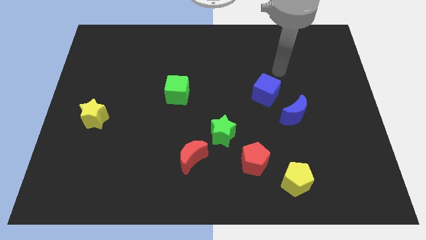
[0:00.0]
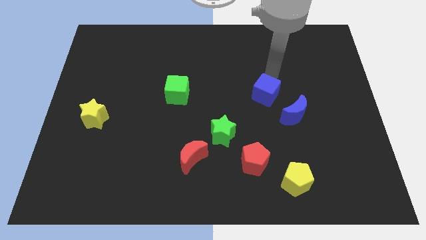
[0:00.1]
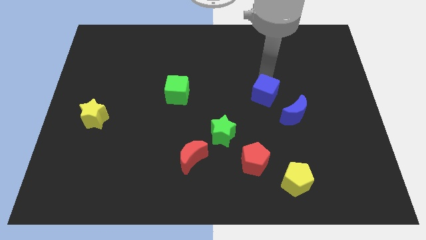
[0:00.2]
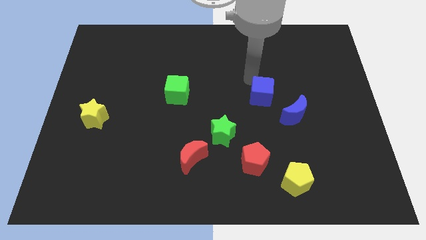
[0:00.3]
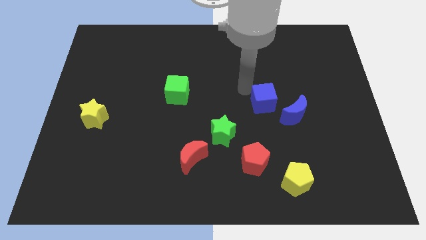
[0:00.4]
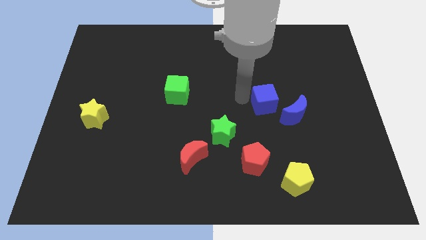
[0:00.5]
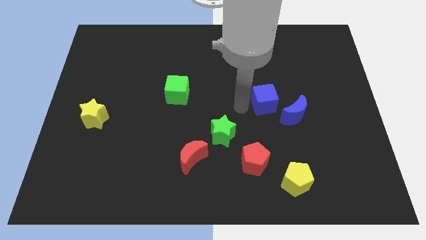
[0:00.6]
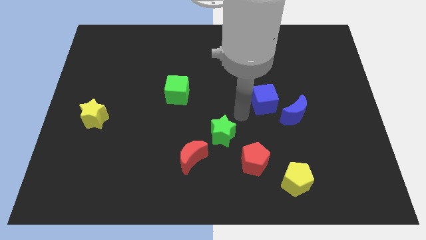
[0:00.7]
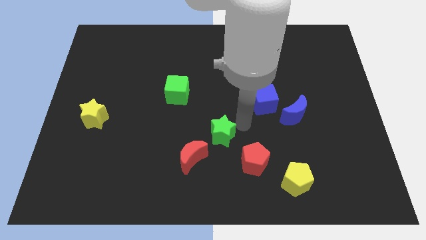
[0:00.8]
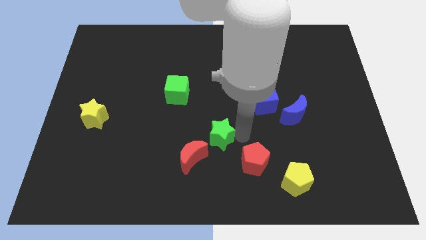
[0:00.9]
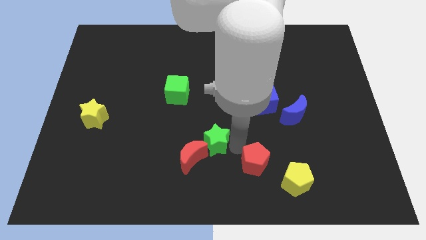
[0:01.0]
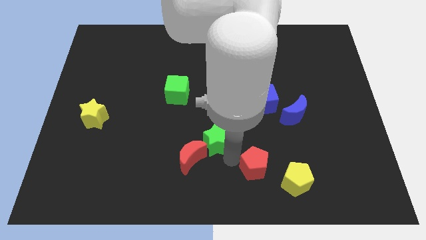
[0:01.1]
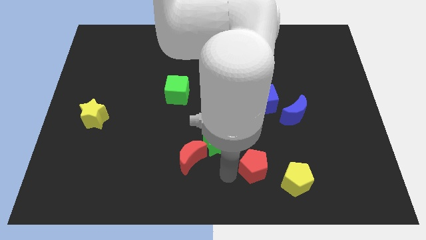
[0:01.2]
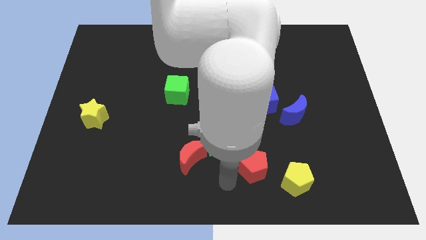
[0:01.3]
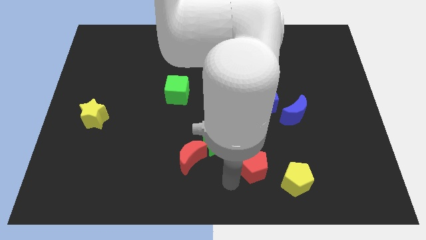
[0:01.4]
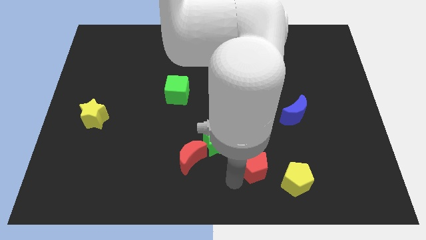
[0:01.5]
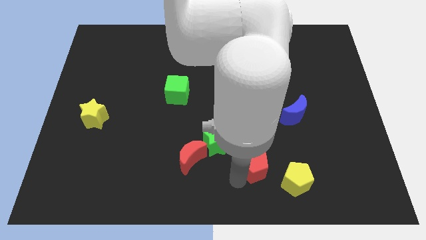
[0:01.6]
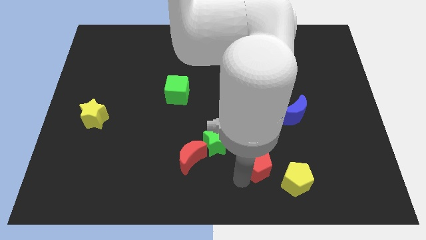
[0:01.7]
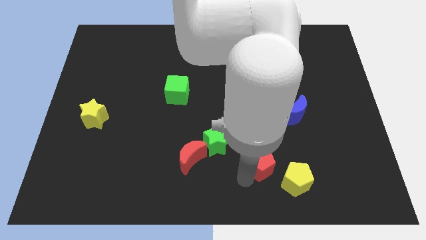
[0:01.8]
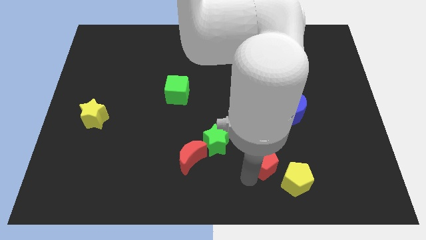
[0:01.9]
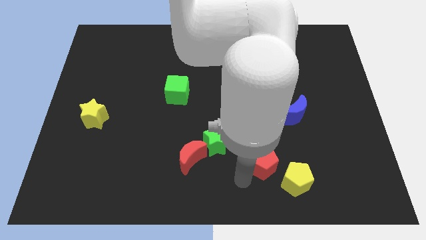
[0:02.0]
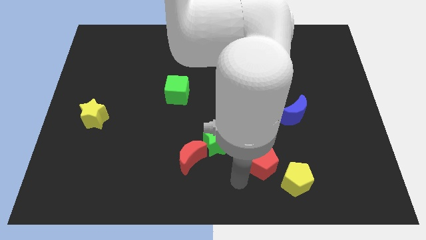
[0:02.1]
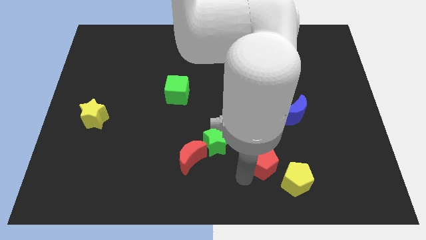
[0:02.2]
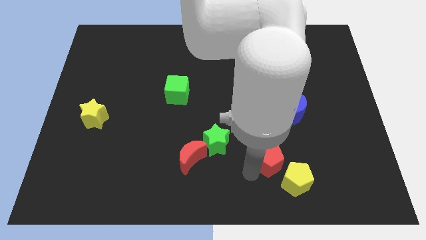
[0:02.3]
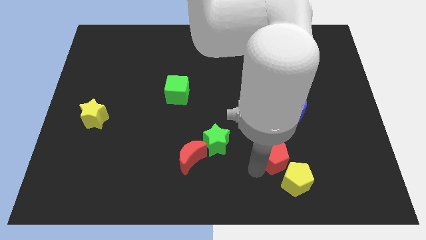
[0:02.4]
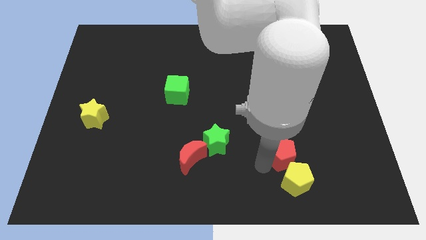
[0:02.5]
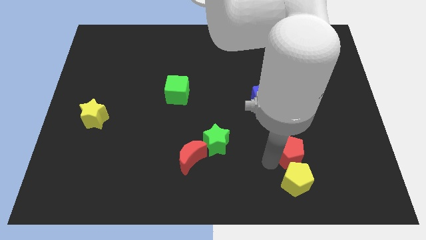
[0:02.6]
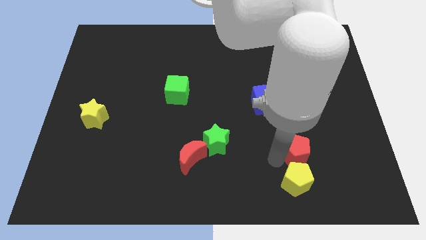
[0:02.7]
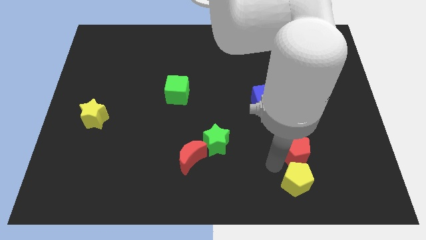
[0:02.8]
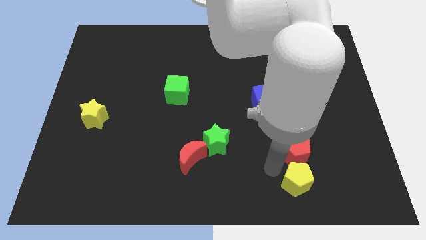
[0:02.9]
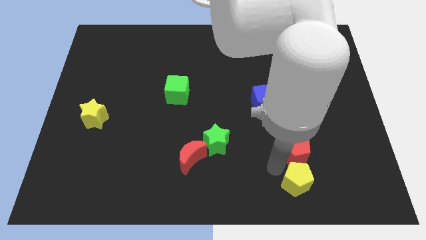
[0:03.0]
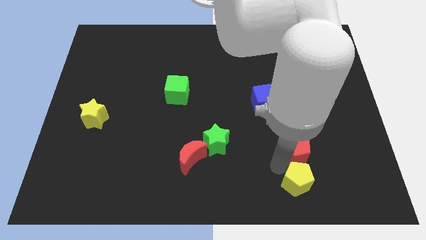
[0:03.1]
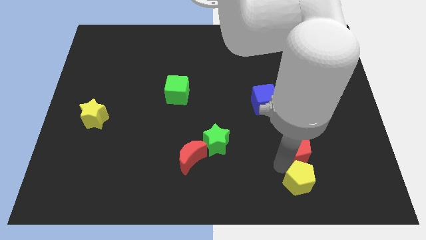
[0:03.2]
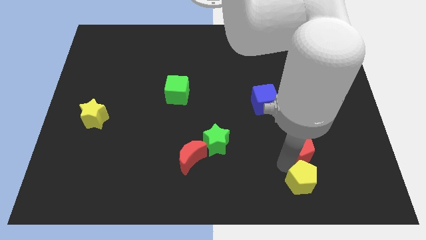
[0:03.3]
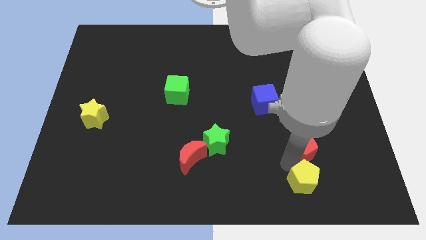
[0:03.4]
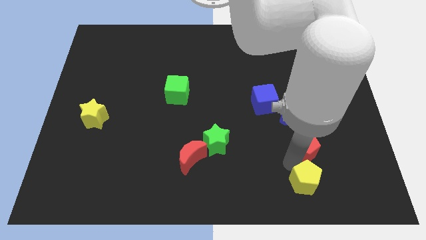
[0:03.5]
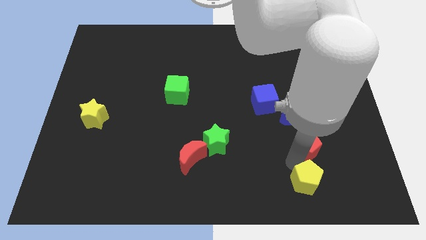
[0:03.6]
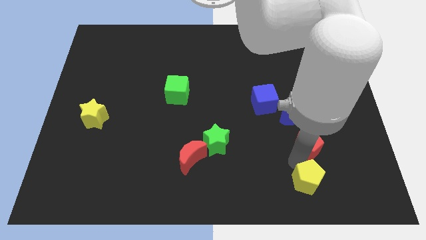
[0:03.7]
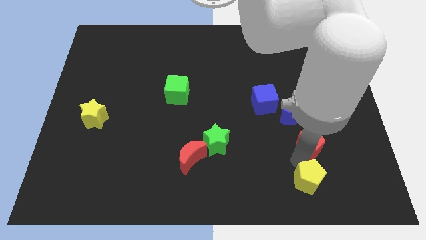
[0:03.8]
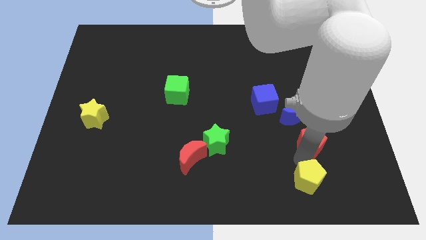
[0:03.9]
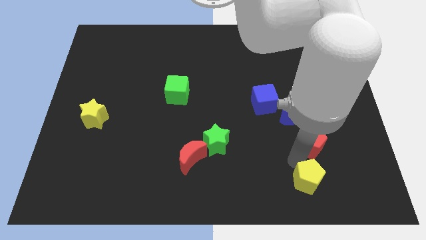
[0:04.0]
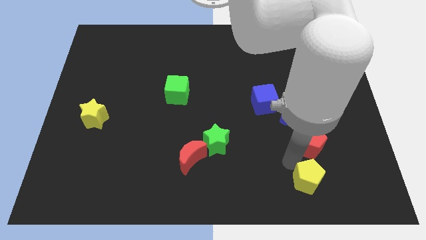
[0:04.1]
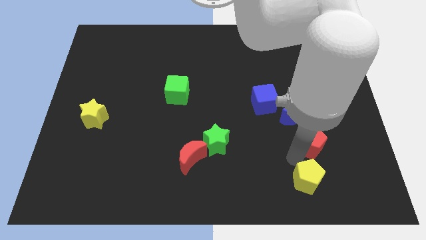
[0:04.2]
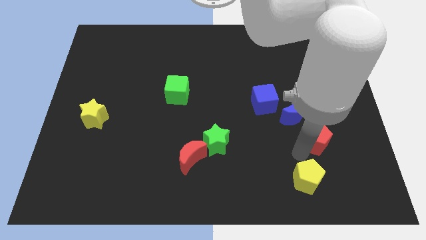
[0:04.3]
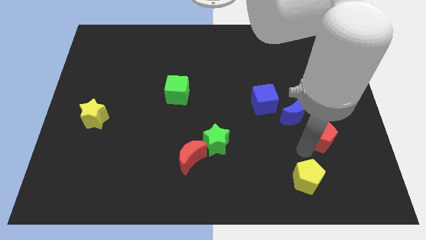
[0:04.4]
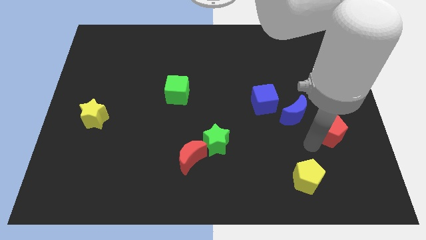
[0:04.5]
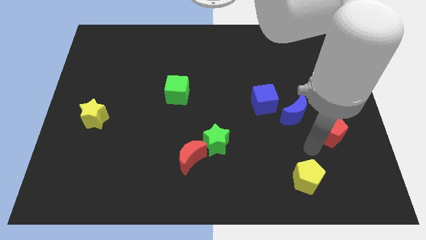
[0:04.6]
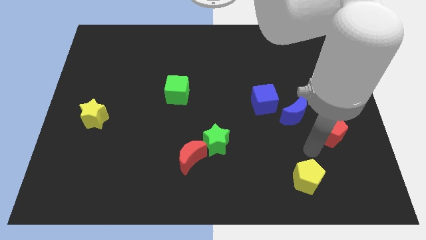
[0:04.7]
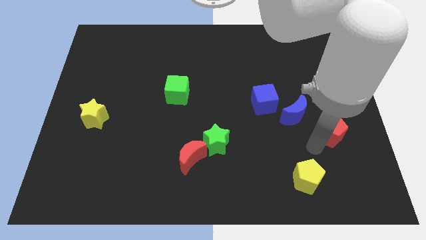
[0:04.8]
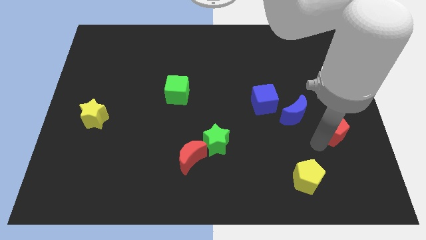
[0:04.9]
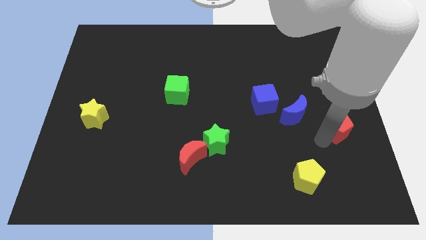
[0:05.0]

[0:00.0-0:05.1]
move the red pentagon to the right side

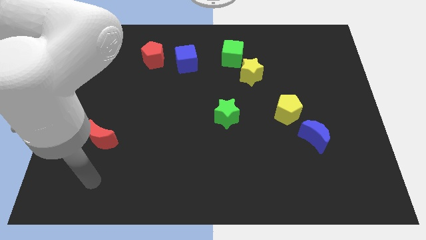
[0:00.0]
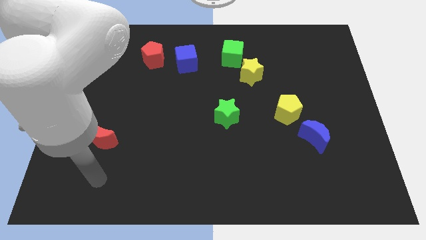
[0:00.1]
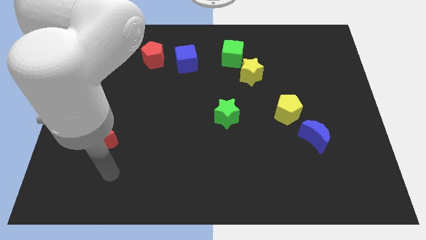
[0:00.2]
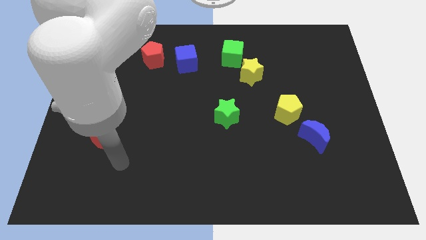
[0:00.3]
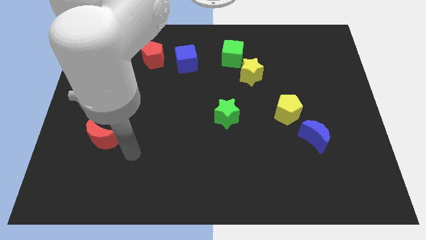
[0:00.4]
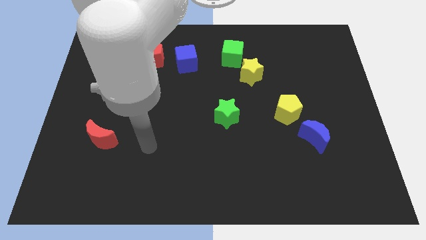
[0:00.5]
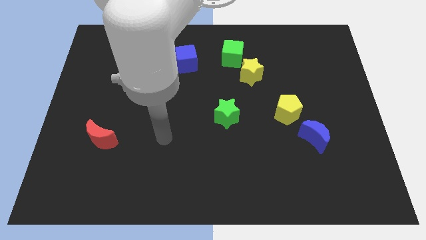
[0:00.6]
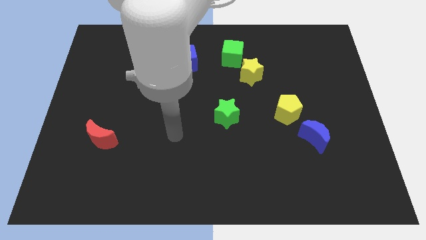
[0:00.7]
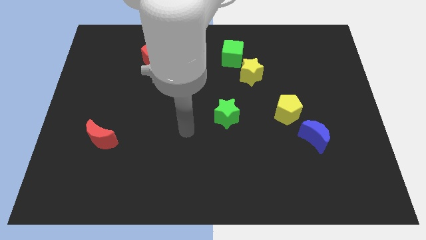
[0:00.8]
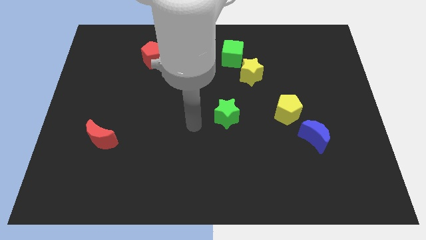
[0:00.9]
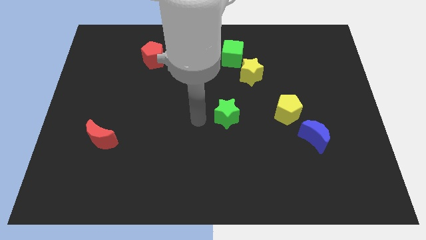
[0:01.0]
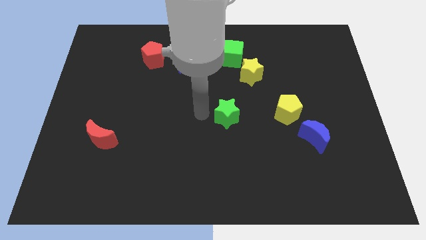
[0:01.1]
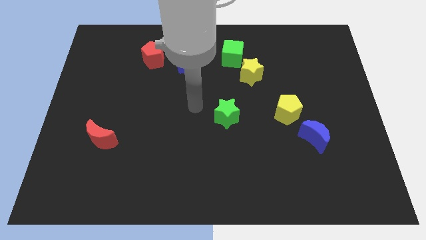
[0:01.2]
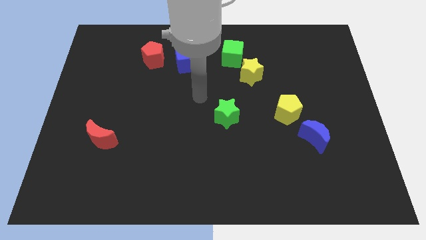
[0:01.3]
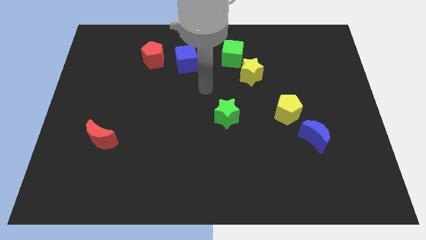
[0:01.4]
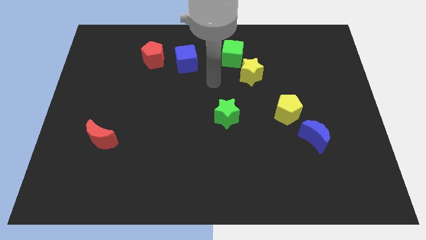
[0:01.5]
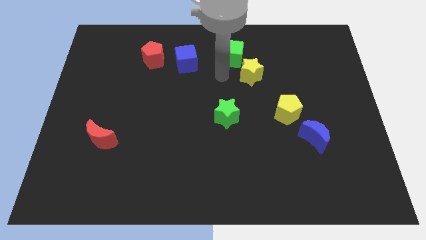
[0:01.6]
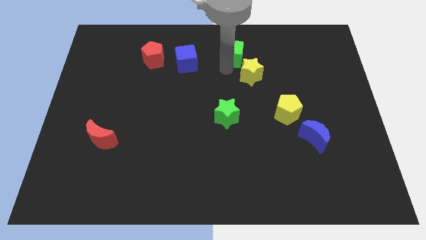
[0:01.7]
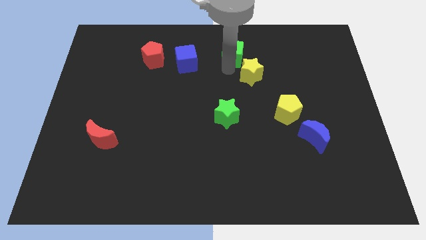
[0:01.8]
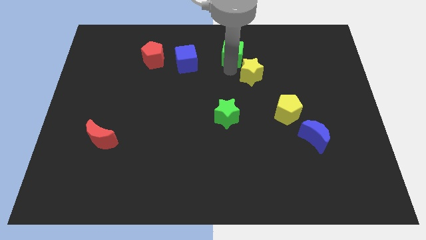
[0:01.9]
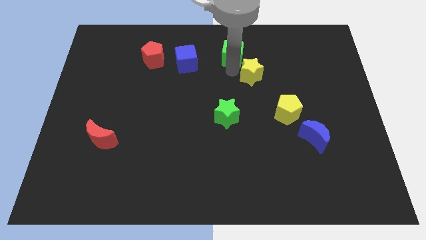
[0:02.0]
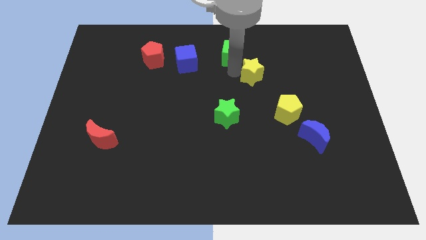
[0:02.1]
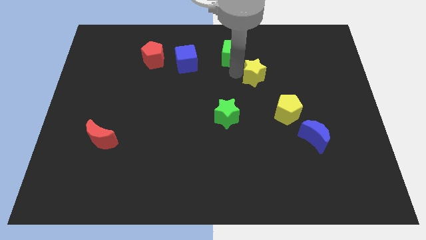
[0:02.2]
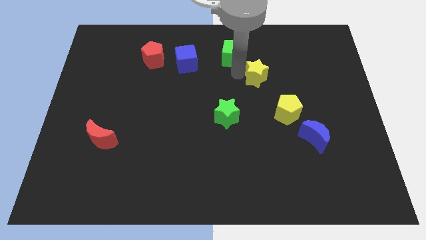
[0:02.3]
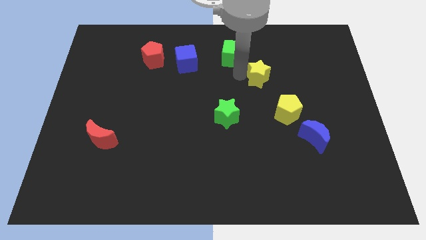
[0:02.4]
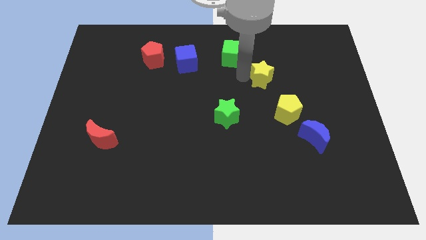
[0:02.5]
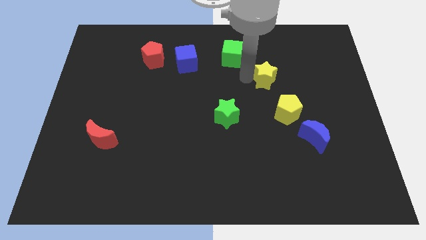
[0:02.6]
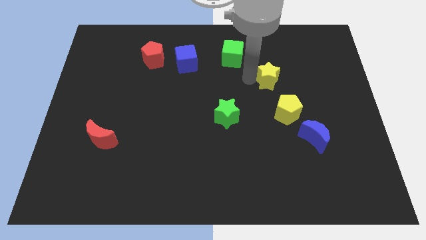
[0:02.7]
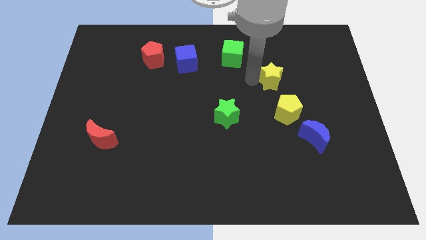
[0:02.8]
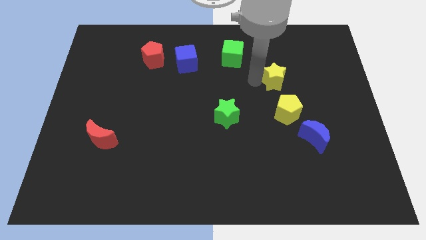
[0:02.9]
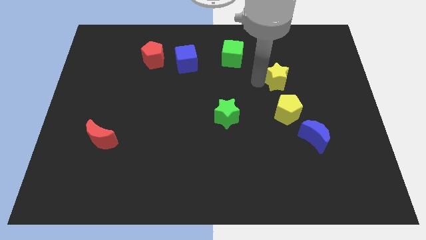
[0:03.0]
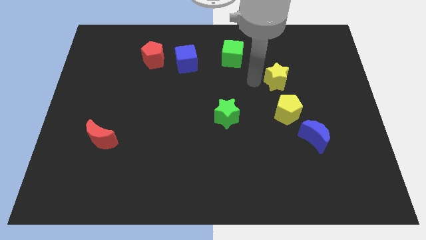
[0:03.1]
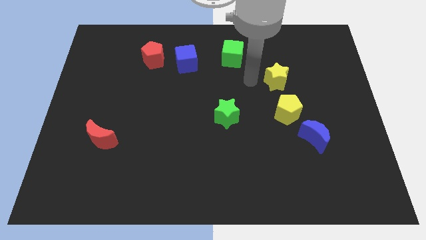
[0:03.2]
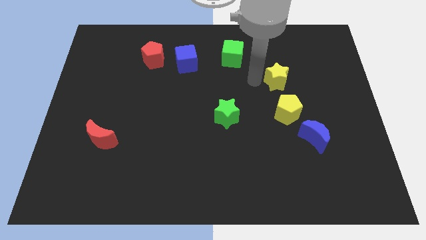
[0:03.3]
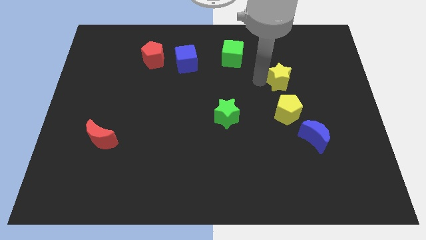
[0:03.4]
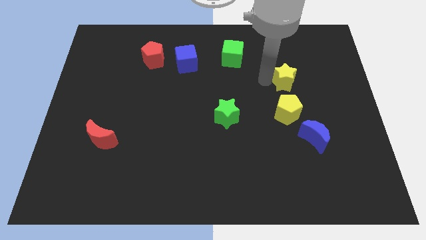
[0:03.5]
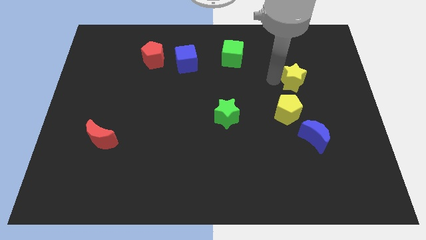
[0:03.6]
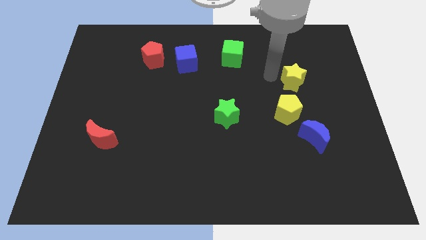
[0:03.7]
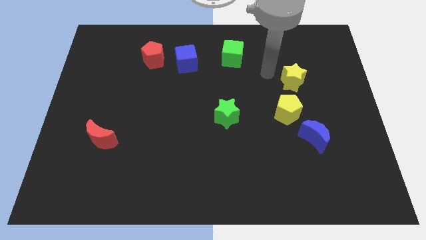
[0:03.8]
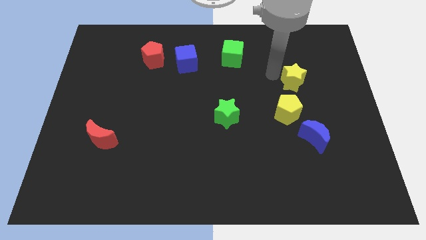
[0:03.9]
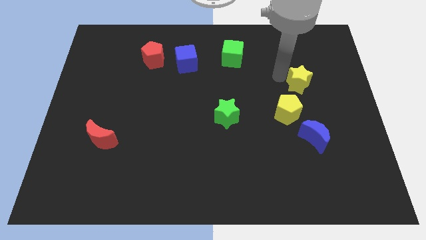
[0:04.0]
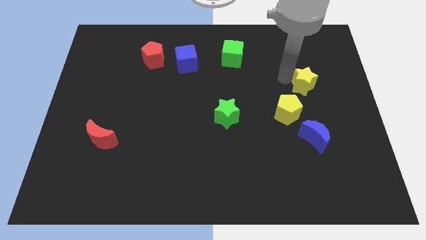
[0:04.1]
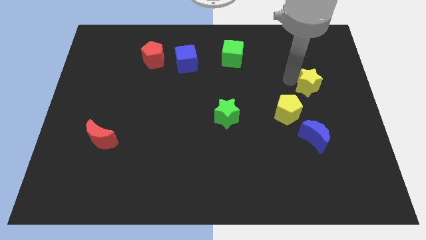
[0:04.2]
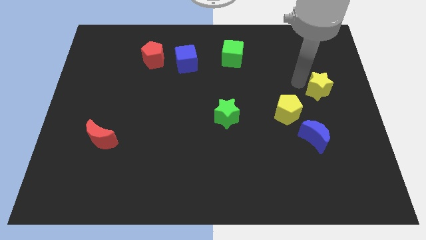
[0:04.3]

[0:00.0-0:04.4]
push the yellow star to the right side of the board
